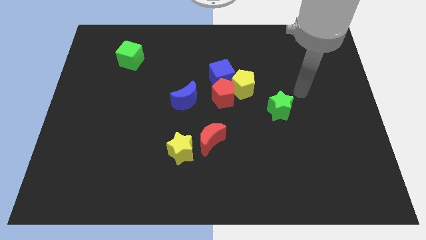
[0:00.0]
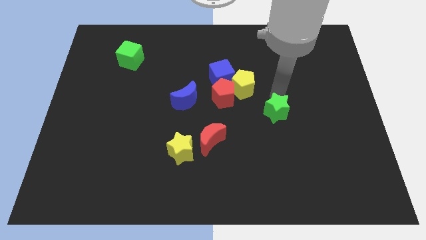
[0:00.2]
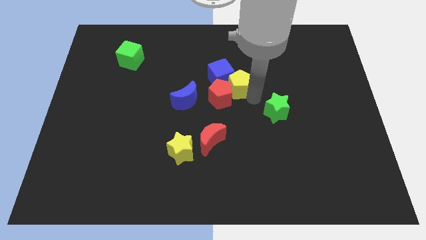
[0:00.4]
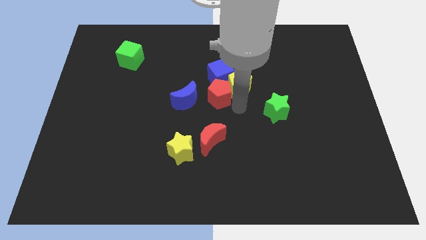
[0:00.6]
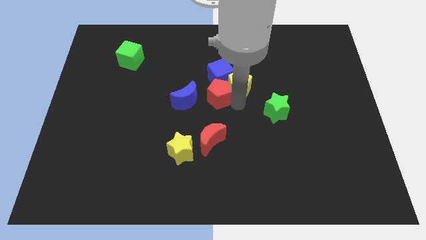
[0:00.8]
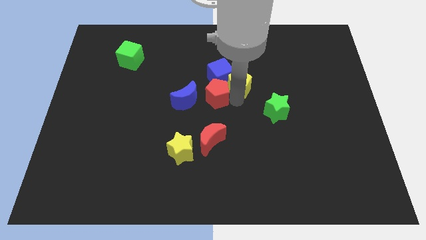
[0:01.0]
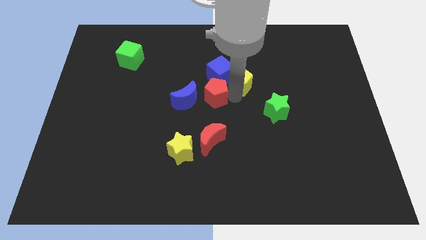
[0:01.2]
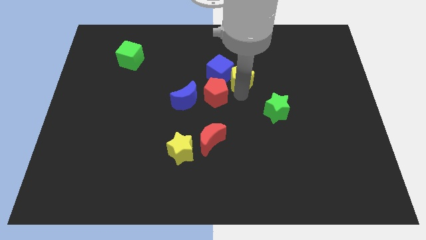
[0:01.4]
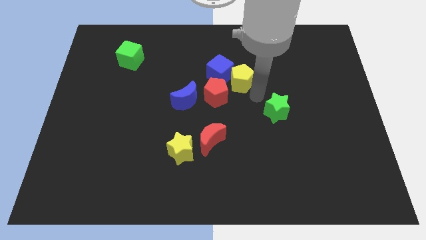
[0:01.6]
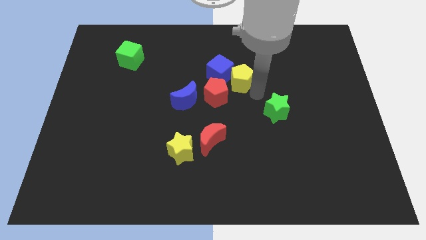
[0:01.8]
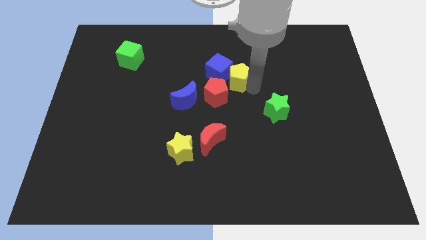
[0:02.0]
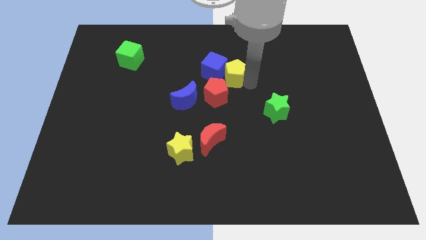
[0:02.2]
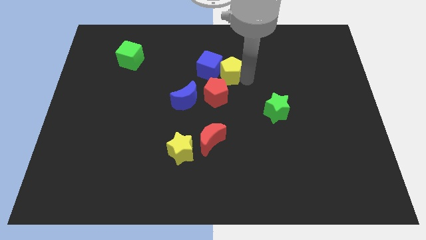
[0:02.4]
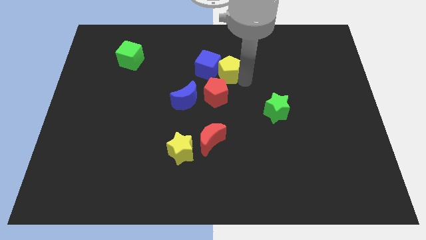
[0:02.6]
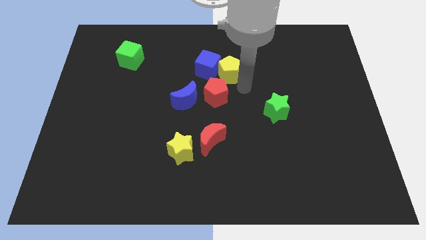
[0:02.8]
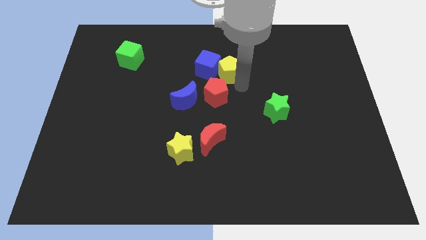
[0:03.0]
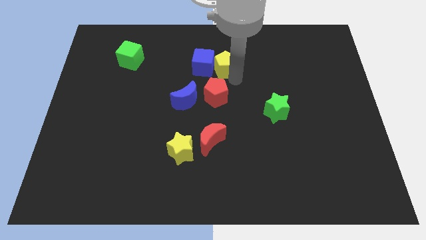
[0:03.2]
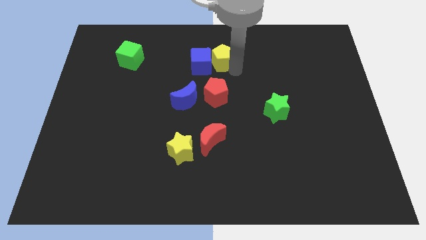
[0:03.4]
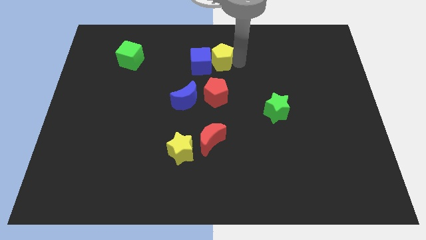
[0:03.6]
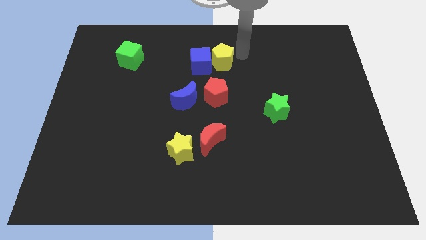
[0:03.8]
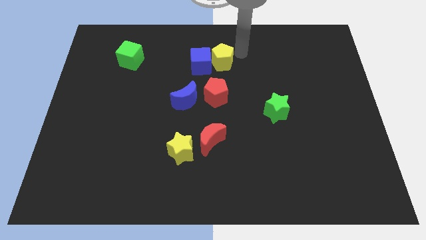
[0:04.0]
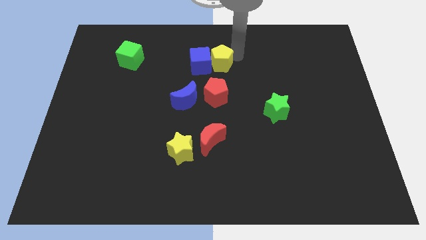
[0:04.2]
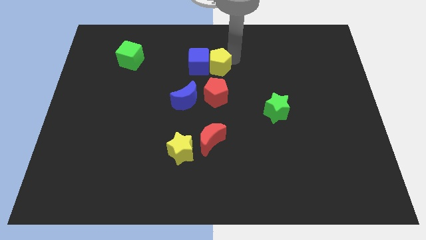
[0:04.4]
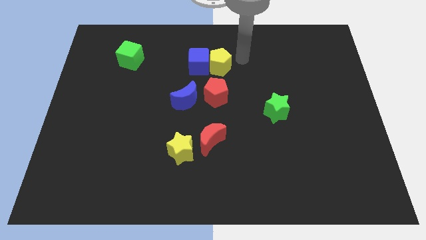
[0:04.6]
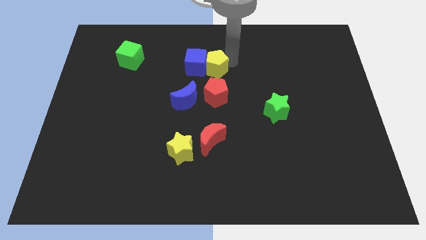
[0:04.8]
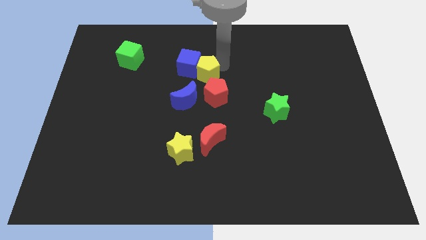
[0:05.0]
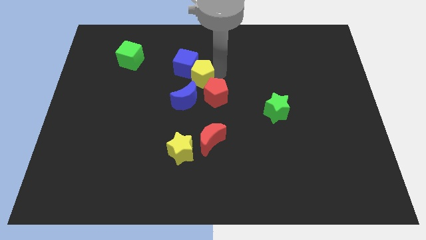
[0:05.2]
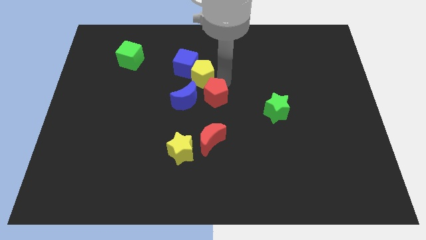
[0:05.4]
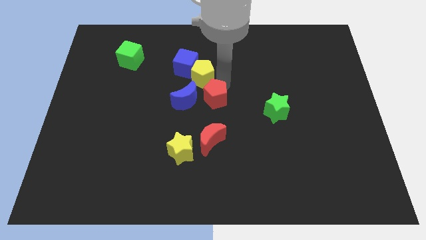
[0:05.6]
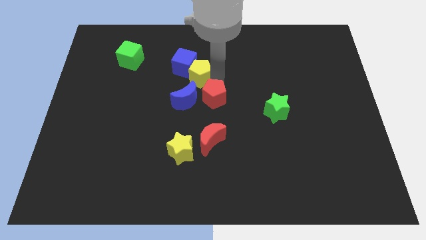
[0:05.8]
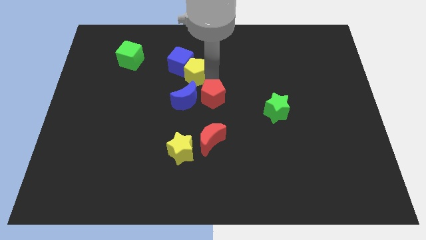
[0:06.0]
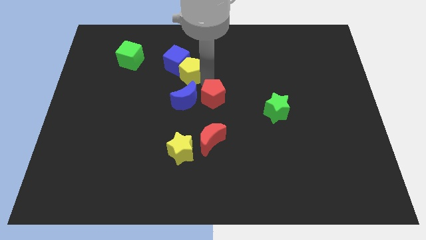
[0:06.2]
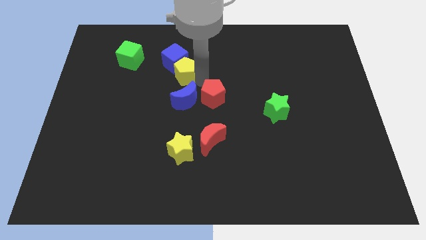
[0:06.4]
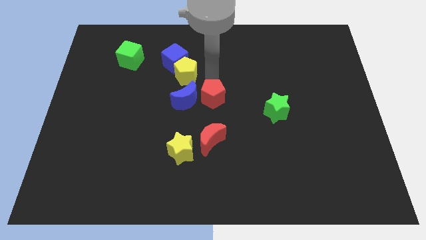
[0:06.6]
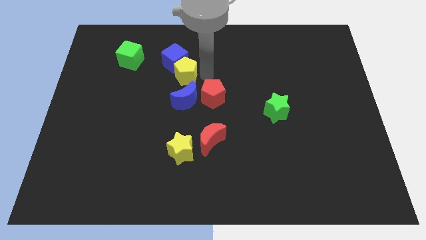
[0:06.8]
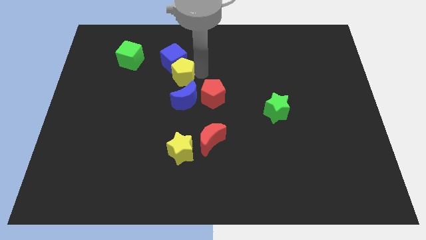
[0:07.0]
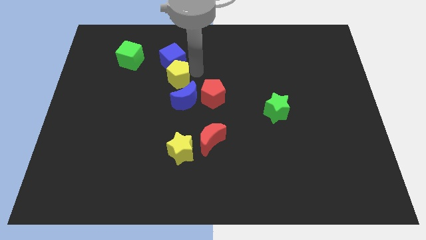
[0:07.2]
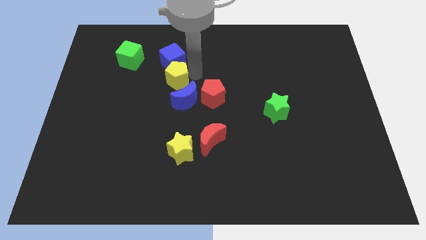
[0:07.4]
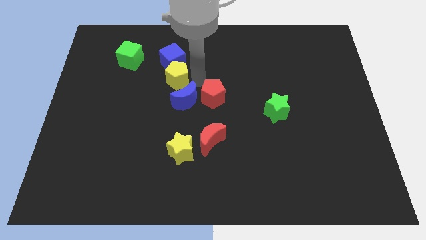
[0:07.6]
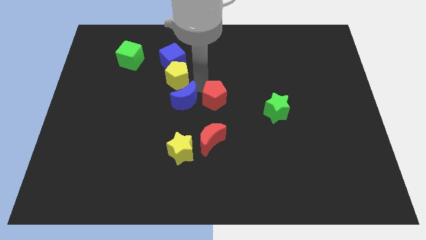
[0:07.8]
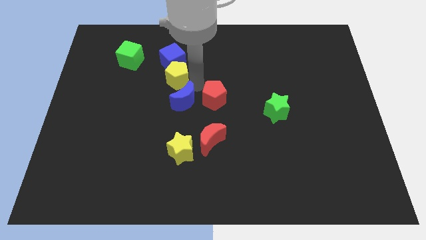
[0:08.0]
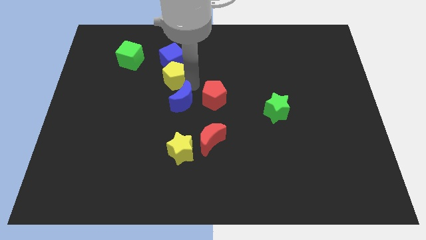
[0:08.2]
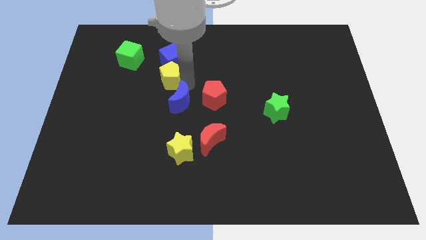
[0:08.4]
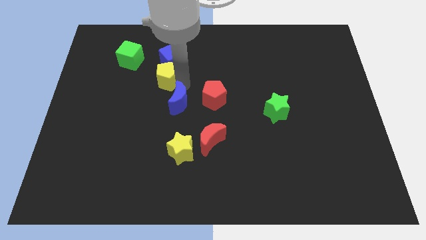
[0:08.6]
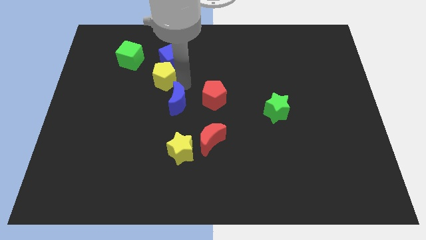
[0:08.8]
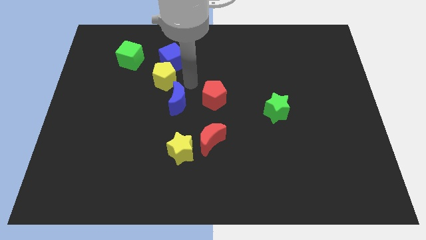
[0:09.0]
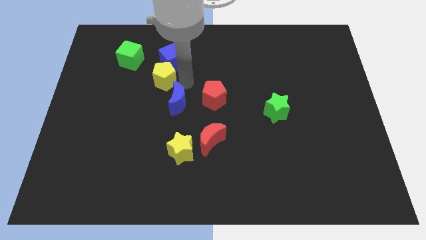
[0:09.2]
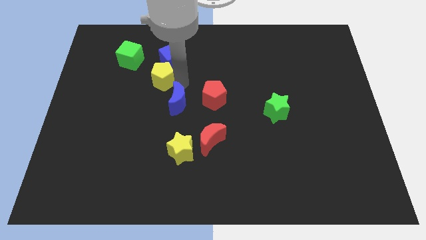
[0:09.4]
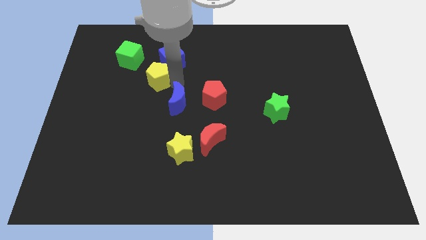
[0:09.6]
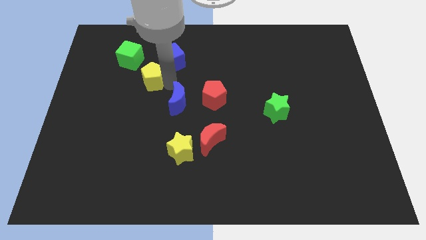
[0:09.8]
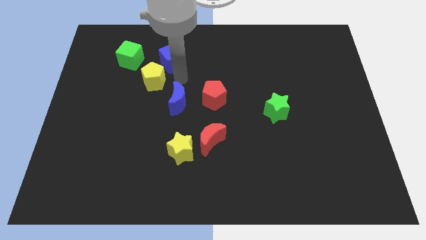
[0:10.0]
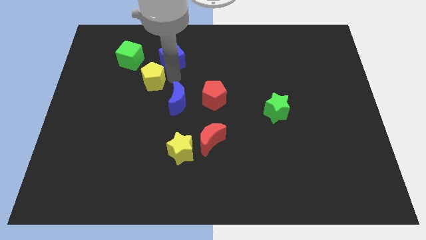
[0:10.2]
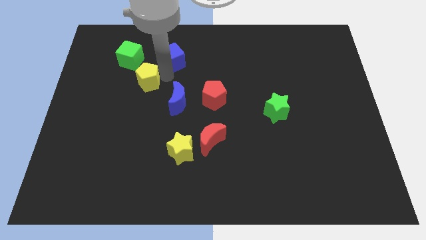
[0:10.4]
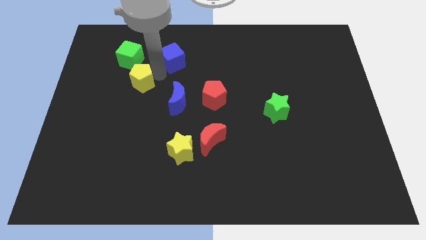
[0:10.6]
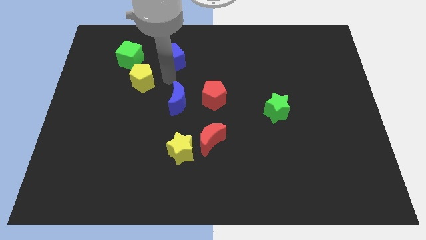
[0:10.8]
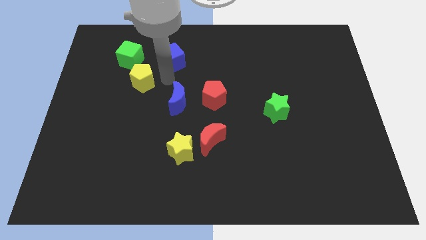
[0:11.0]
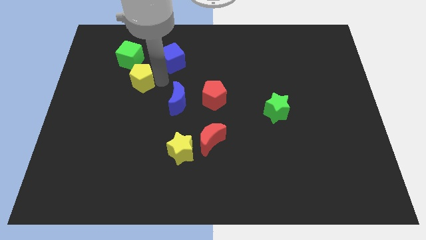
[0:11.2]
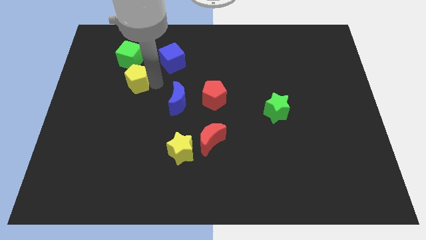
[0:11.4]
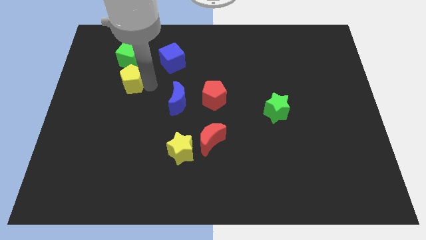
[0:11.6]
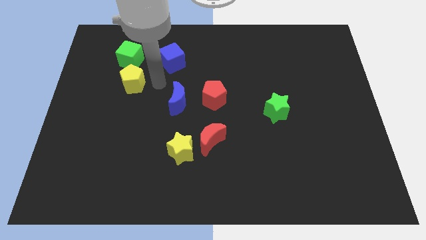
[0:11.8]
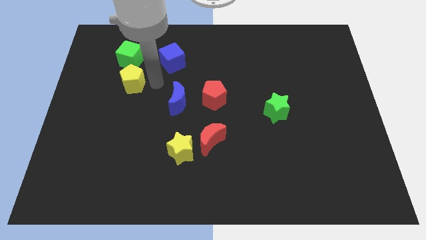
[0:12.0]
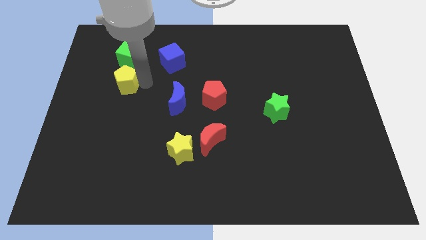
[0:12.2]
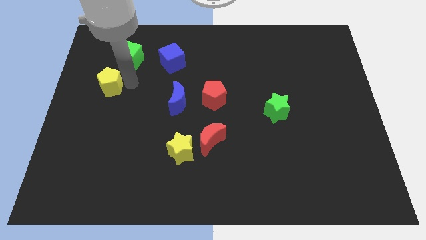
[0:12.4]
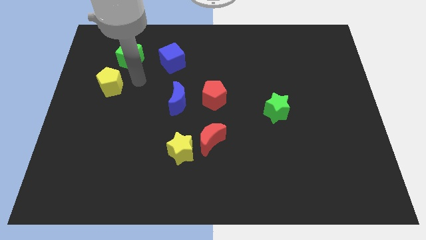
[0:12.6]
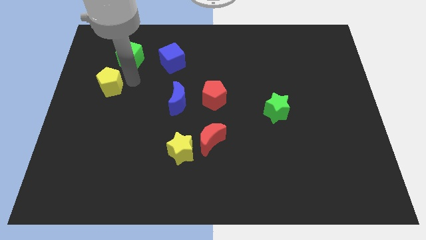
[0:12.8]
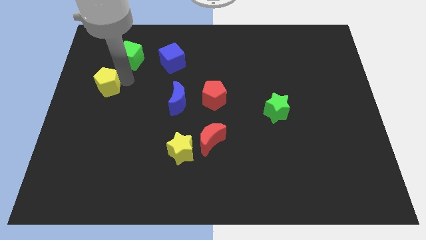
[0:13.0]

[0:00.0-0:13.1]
push the yellow pentagon to the left side
